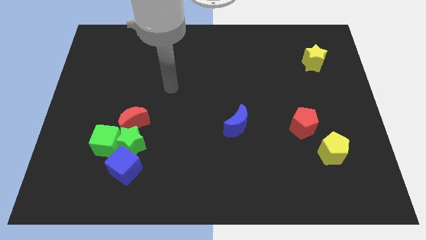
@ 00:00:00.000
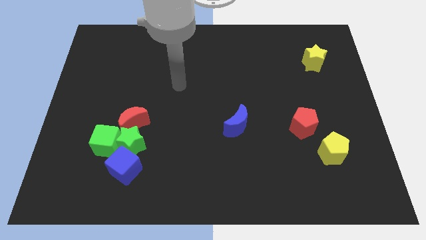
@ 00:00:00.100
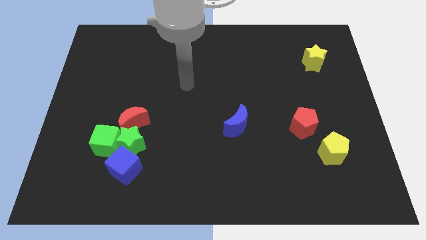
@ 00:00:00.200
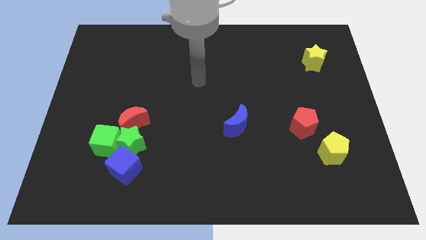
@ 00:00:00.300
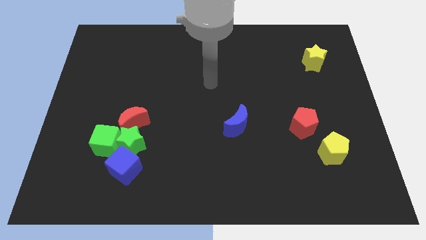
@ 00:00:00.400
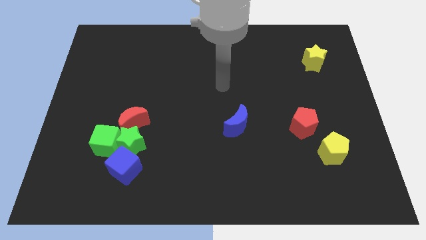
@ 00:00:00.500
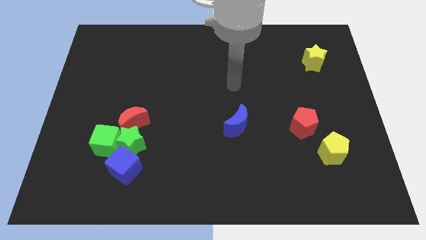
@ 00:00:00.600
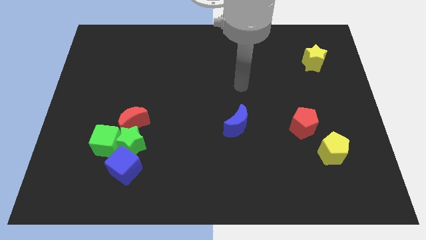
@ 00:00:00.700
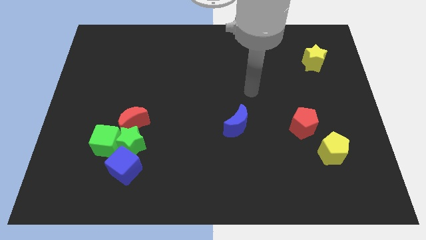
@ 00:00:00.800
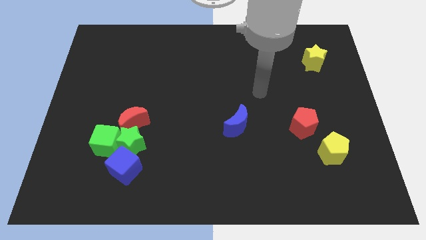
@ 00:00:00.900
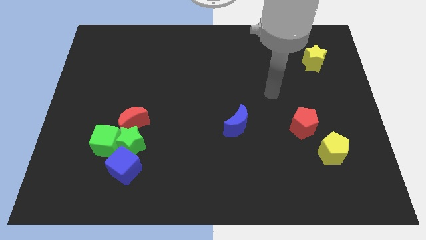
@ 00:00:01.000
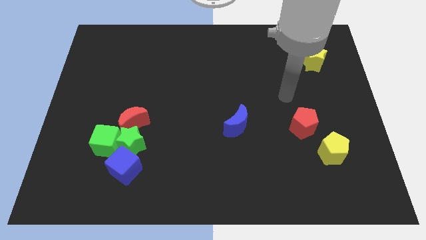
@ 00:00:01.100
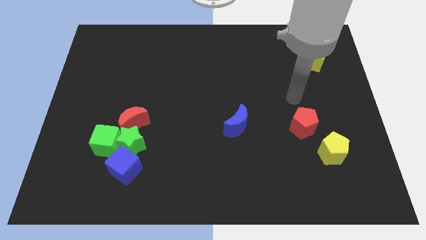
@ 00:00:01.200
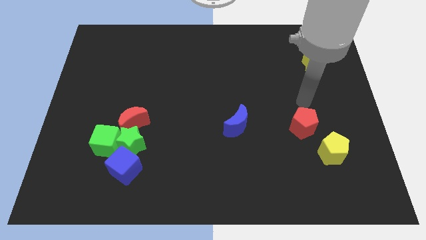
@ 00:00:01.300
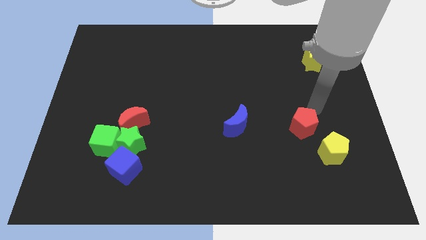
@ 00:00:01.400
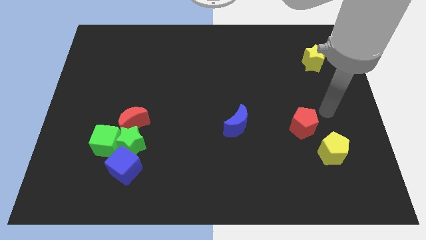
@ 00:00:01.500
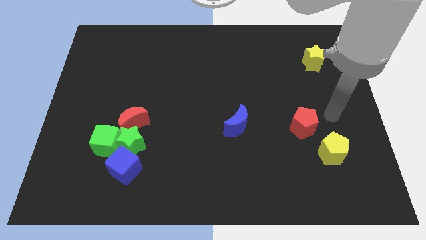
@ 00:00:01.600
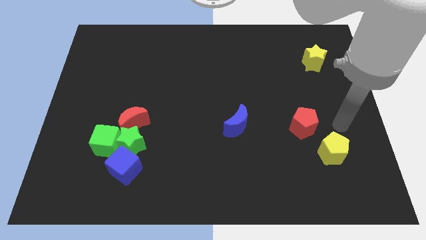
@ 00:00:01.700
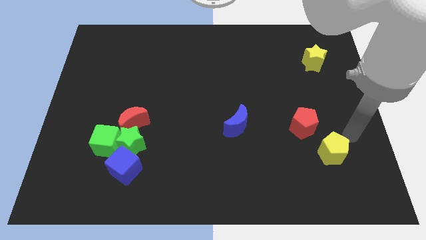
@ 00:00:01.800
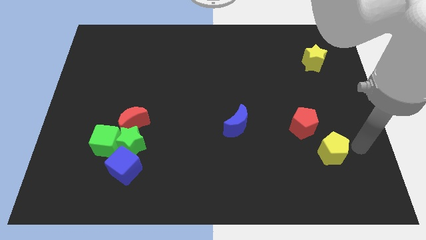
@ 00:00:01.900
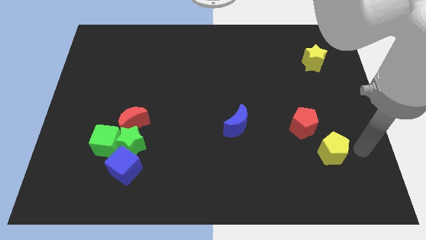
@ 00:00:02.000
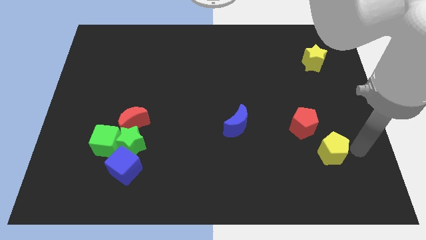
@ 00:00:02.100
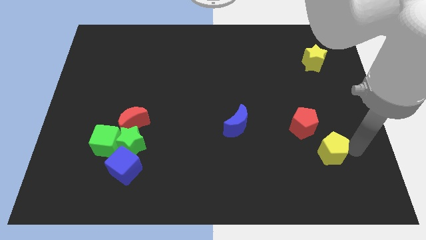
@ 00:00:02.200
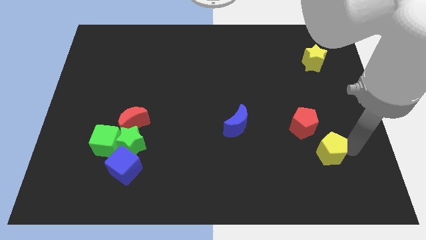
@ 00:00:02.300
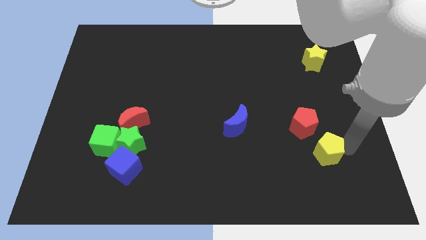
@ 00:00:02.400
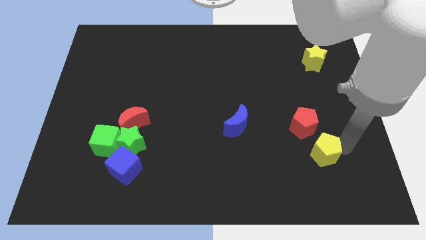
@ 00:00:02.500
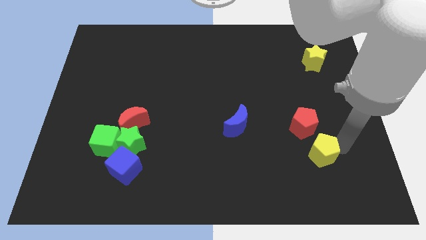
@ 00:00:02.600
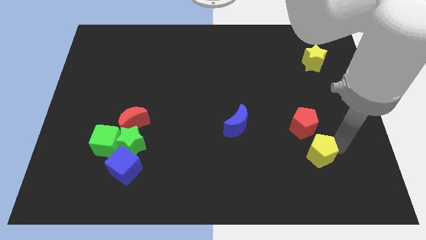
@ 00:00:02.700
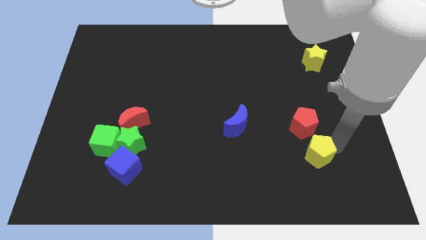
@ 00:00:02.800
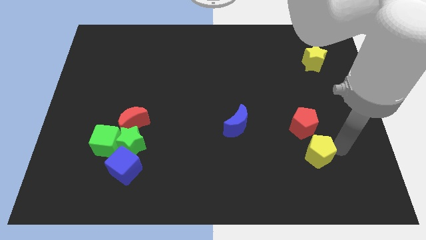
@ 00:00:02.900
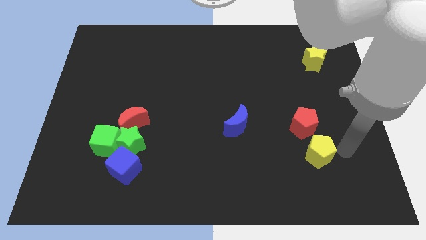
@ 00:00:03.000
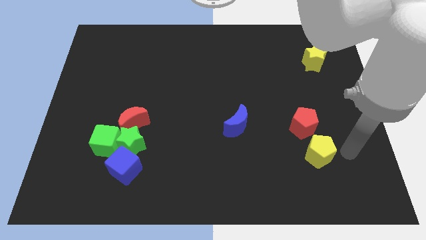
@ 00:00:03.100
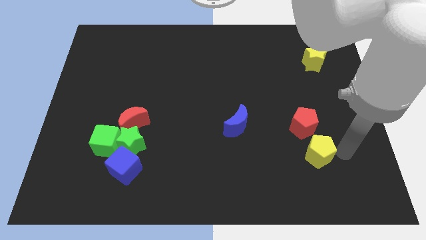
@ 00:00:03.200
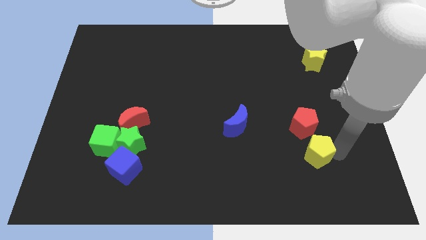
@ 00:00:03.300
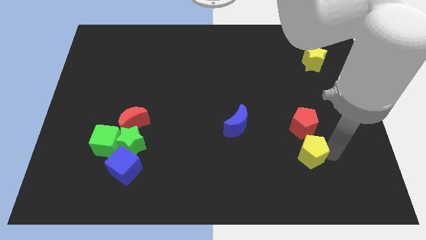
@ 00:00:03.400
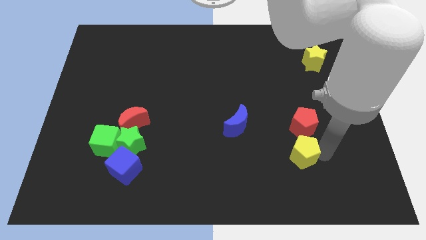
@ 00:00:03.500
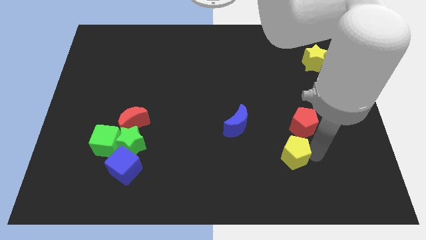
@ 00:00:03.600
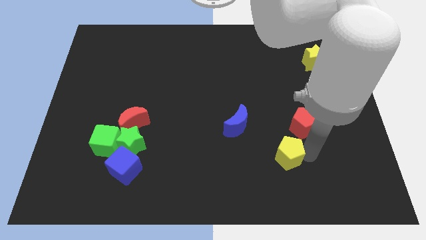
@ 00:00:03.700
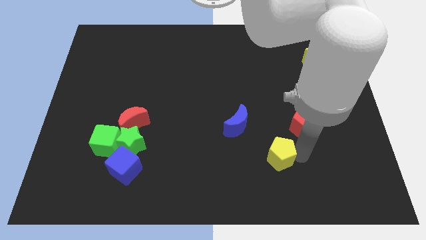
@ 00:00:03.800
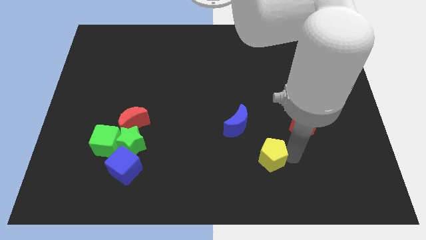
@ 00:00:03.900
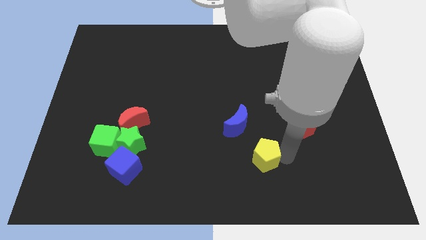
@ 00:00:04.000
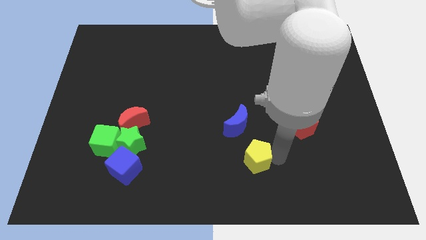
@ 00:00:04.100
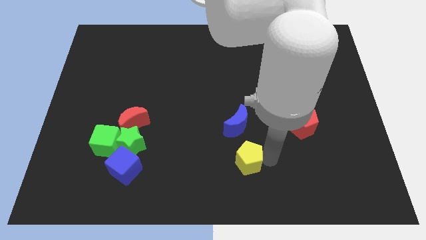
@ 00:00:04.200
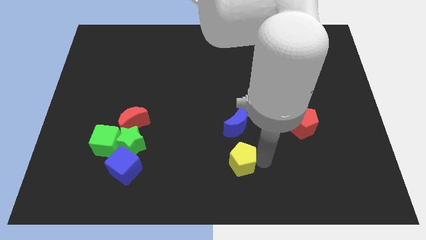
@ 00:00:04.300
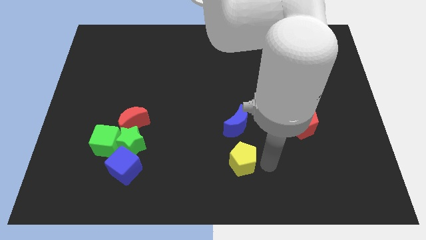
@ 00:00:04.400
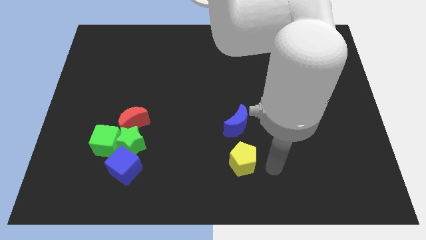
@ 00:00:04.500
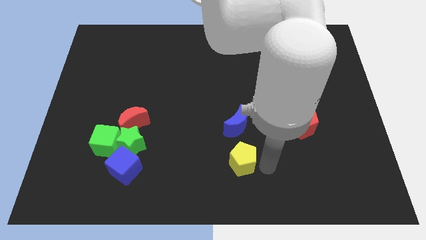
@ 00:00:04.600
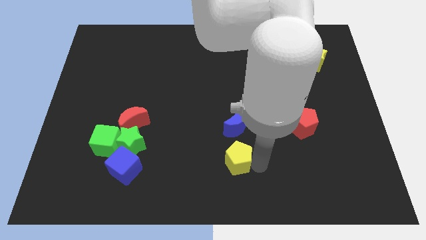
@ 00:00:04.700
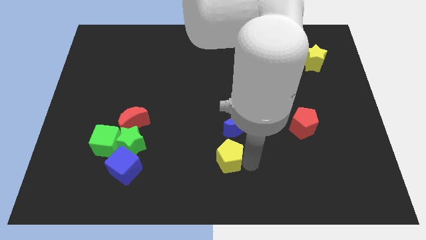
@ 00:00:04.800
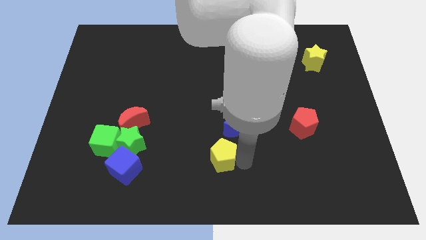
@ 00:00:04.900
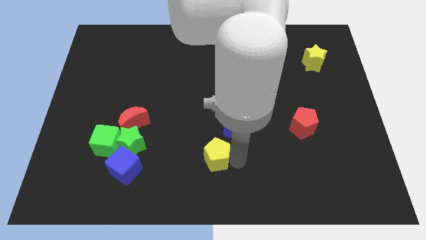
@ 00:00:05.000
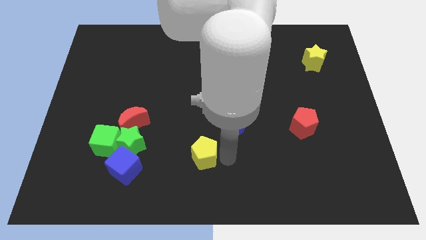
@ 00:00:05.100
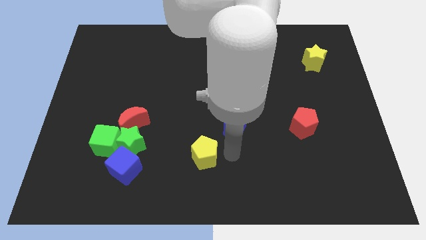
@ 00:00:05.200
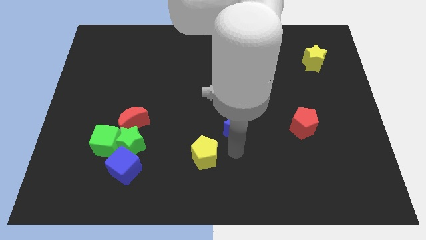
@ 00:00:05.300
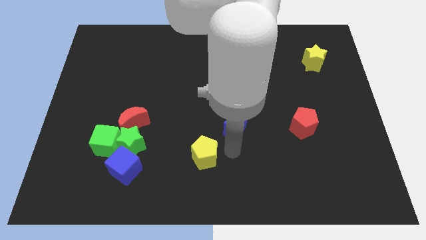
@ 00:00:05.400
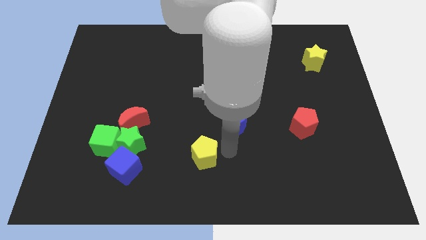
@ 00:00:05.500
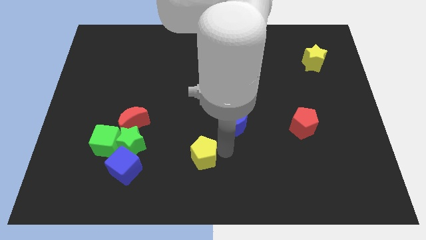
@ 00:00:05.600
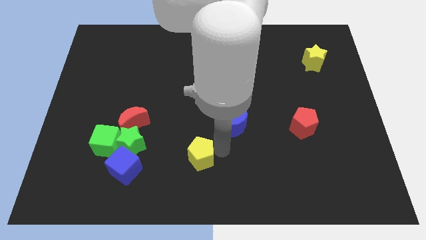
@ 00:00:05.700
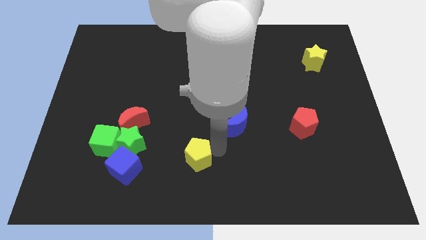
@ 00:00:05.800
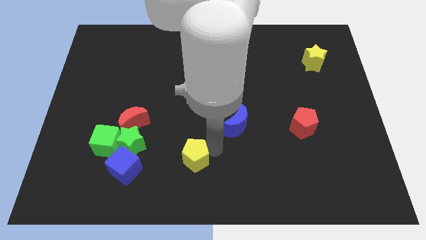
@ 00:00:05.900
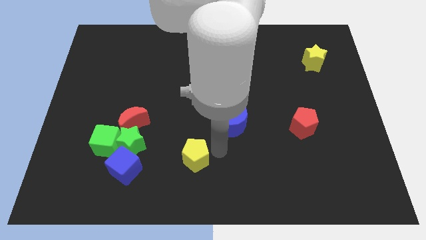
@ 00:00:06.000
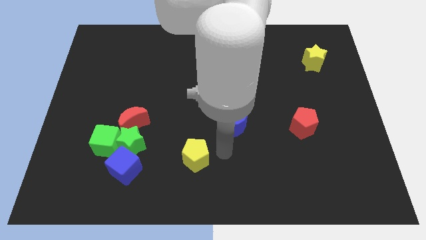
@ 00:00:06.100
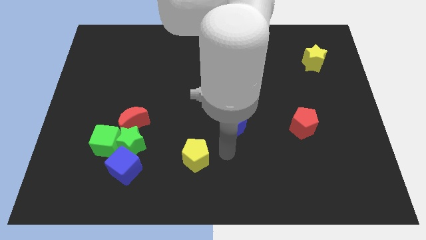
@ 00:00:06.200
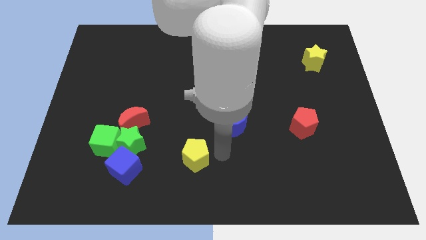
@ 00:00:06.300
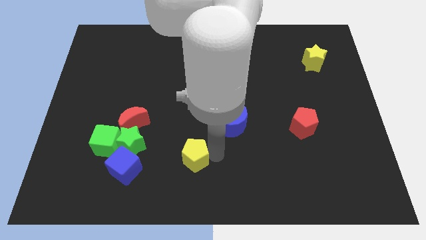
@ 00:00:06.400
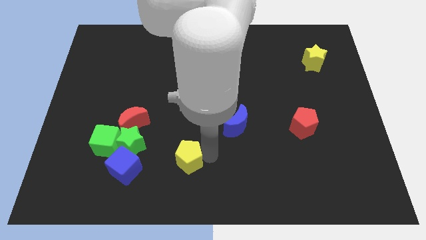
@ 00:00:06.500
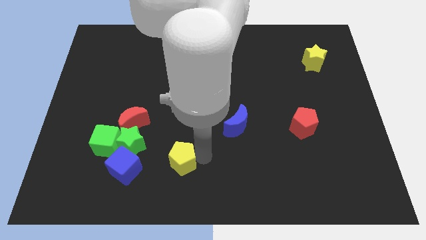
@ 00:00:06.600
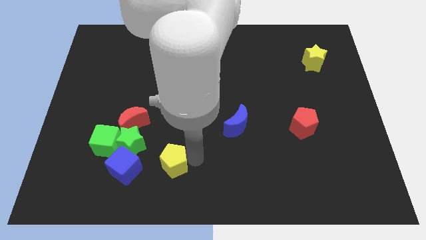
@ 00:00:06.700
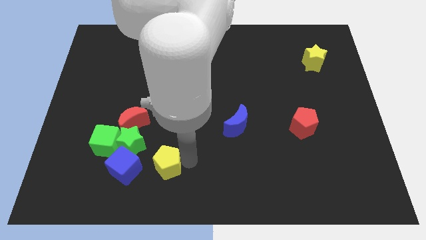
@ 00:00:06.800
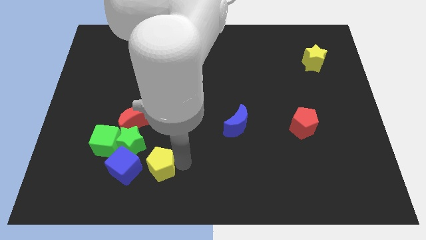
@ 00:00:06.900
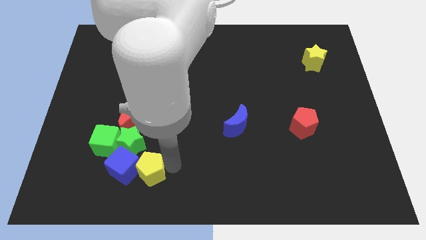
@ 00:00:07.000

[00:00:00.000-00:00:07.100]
move the yellow pentagon to the blue cube
